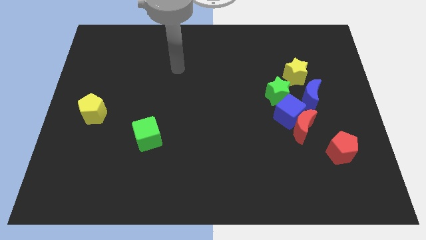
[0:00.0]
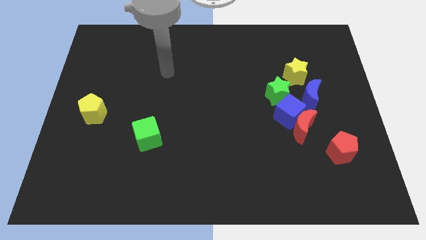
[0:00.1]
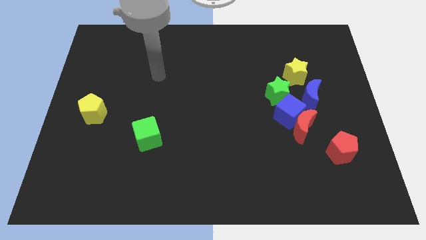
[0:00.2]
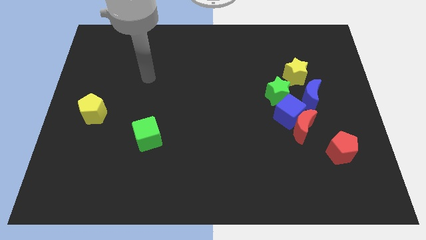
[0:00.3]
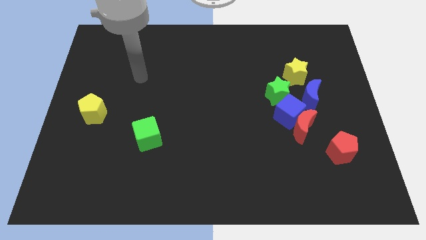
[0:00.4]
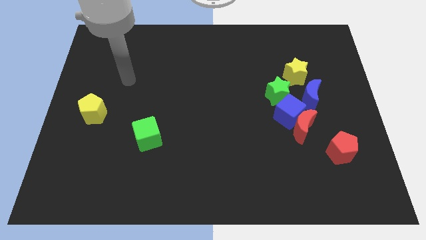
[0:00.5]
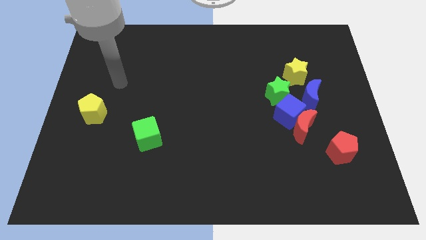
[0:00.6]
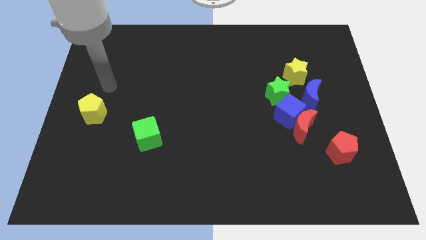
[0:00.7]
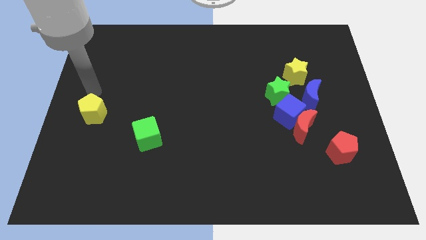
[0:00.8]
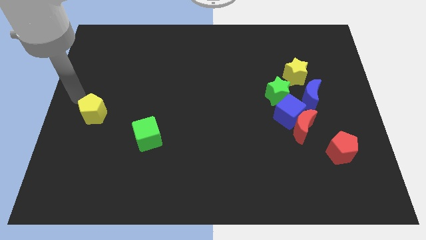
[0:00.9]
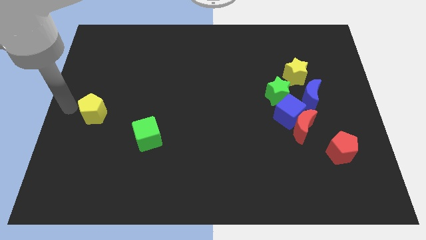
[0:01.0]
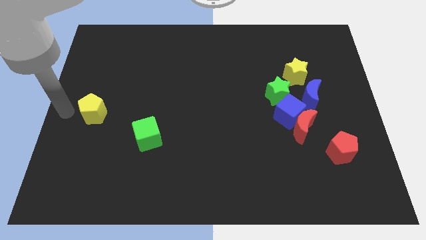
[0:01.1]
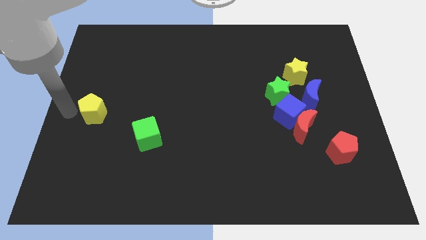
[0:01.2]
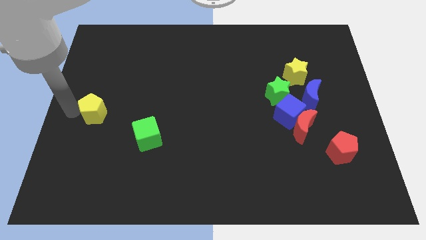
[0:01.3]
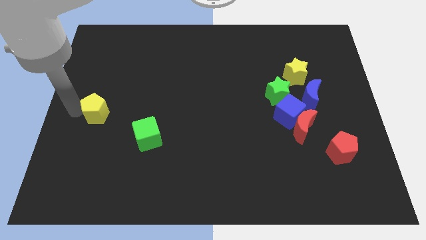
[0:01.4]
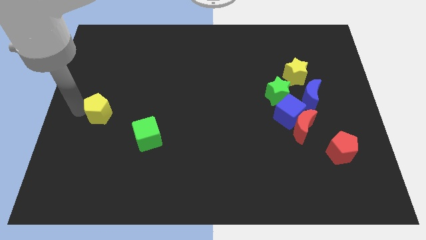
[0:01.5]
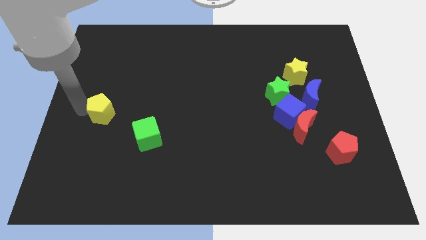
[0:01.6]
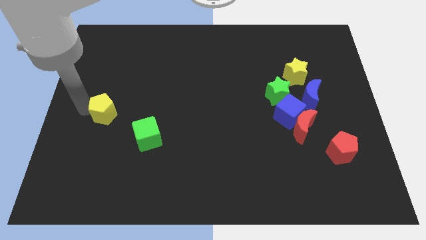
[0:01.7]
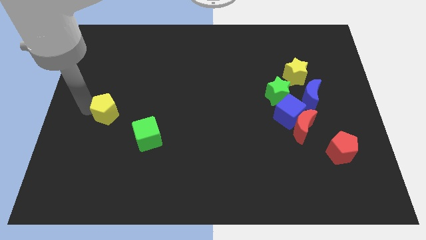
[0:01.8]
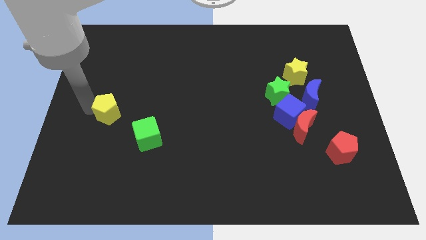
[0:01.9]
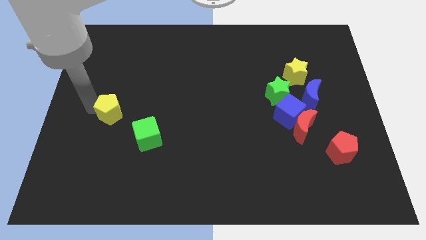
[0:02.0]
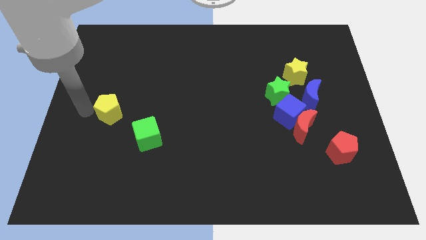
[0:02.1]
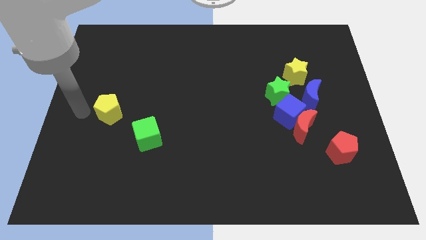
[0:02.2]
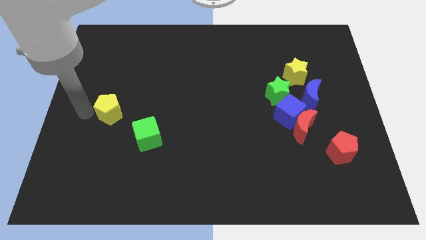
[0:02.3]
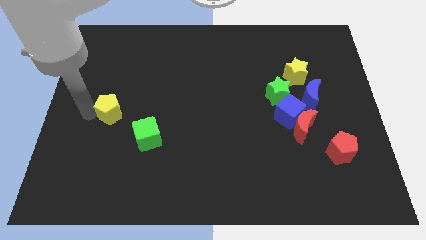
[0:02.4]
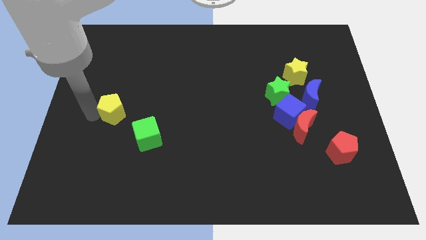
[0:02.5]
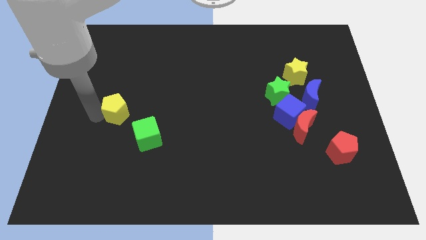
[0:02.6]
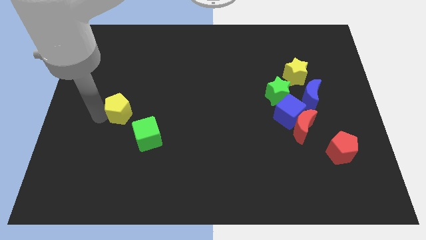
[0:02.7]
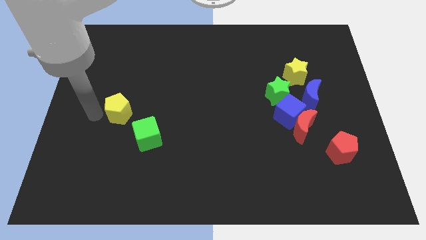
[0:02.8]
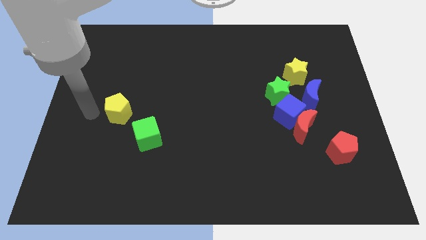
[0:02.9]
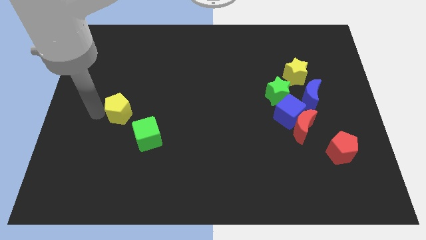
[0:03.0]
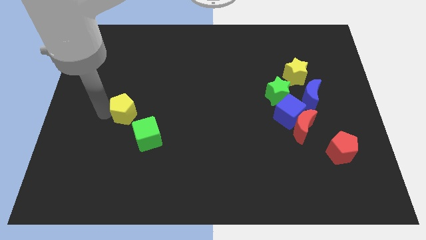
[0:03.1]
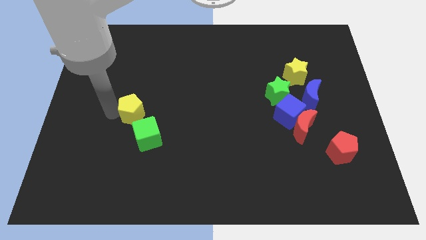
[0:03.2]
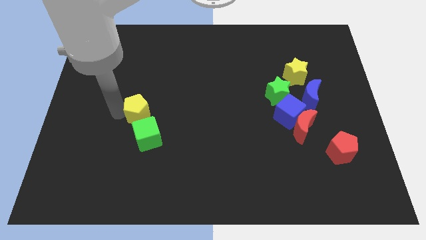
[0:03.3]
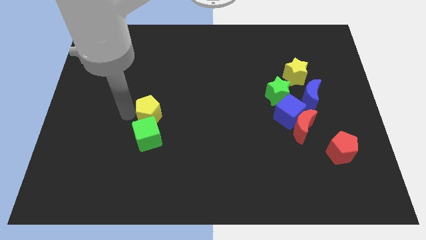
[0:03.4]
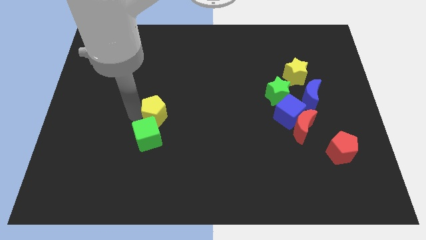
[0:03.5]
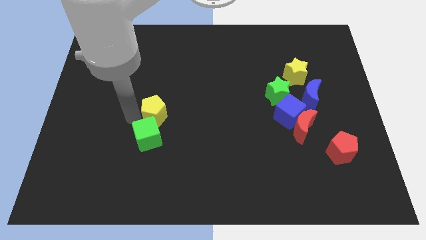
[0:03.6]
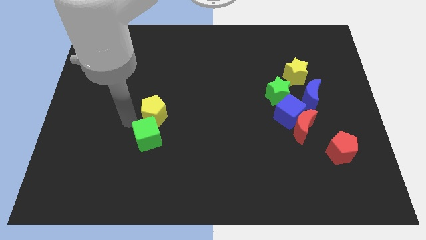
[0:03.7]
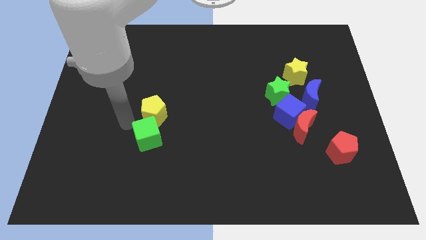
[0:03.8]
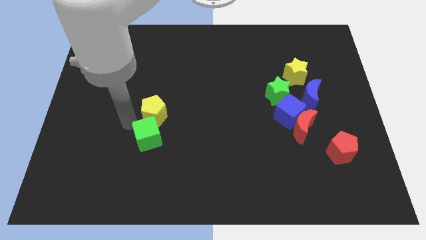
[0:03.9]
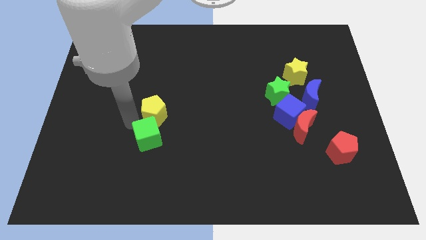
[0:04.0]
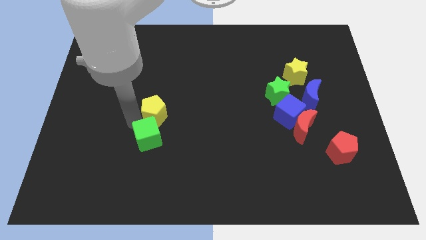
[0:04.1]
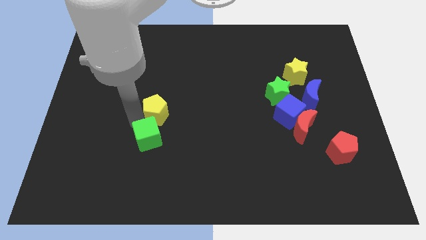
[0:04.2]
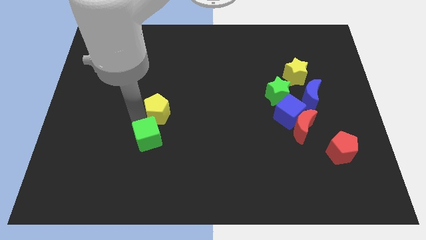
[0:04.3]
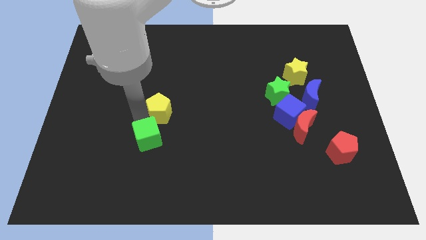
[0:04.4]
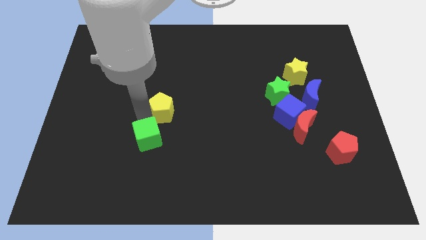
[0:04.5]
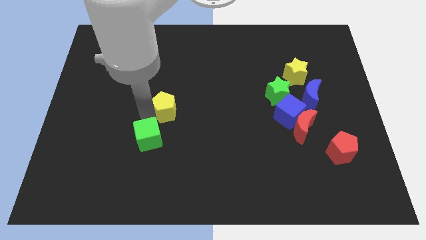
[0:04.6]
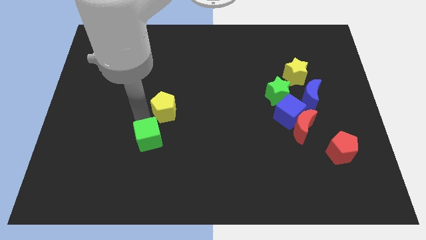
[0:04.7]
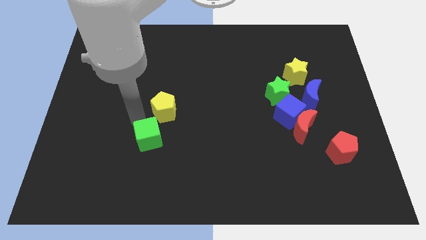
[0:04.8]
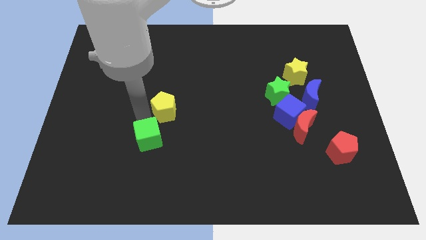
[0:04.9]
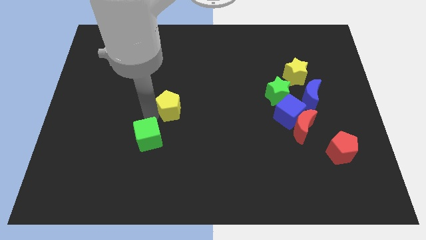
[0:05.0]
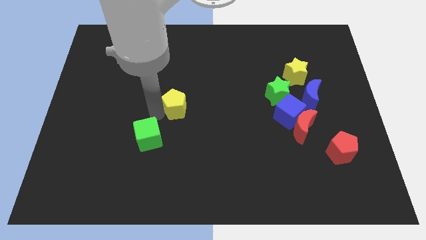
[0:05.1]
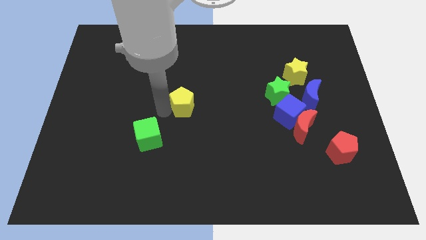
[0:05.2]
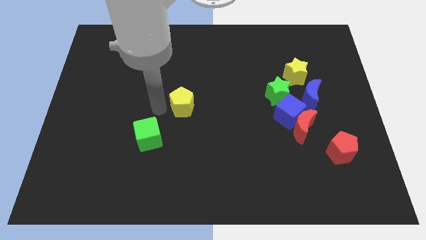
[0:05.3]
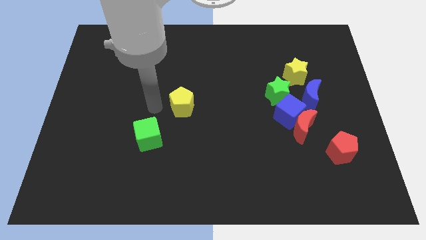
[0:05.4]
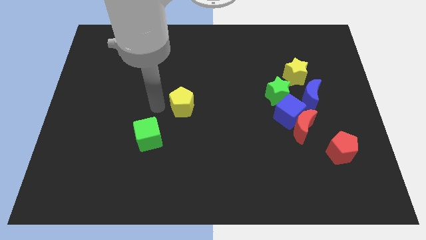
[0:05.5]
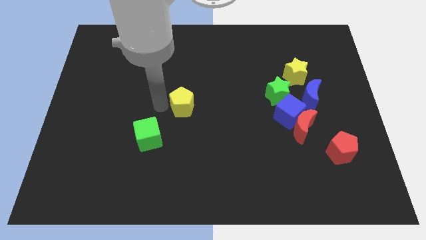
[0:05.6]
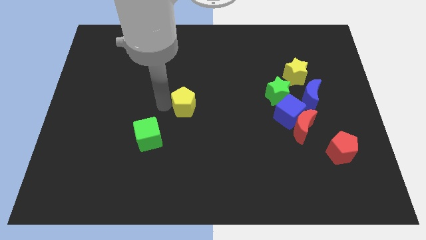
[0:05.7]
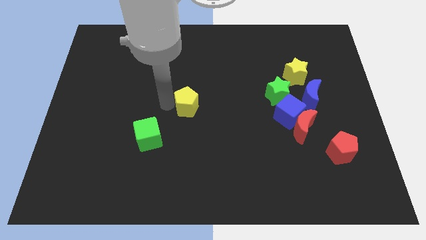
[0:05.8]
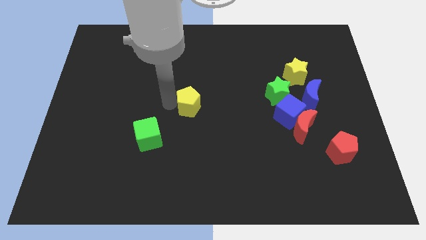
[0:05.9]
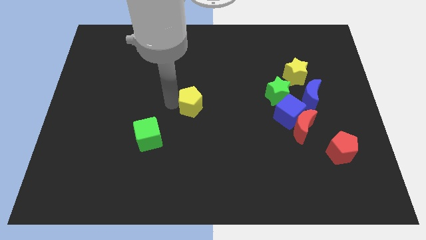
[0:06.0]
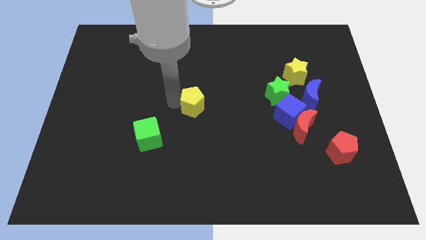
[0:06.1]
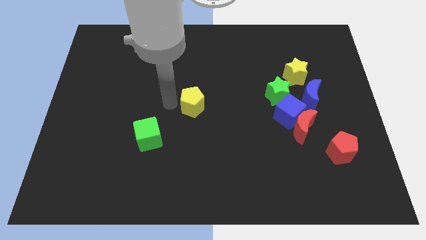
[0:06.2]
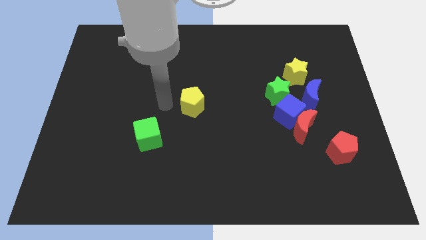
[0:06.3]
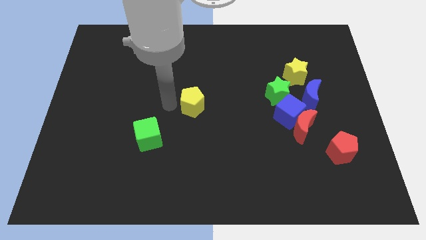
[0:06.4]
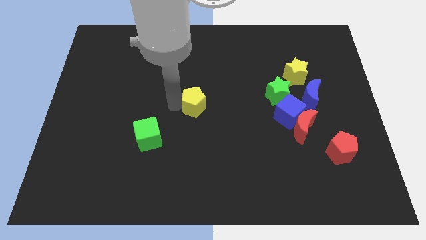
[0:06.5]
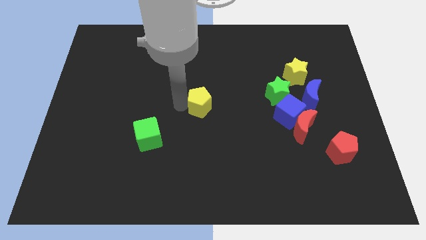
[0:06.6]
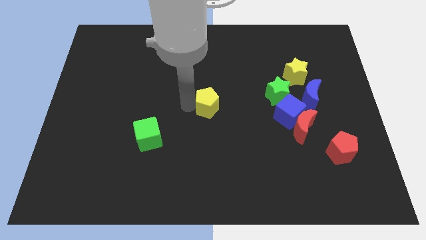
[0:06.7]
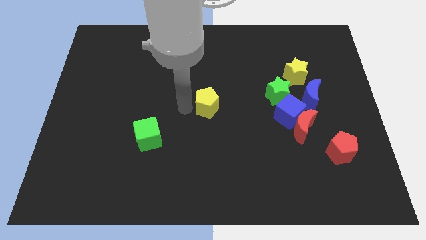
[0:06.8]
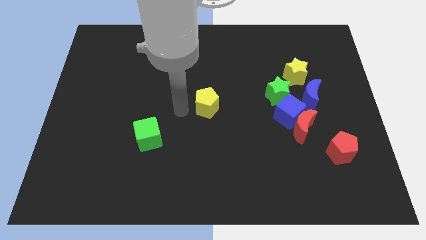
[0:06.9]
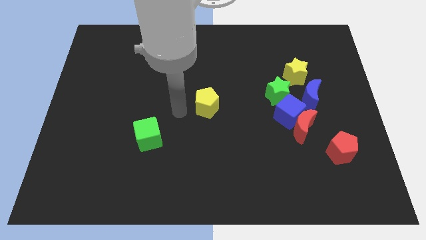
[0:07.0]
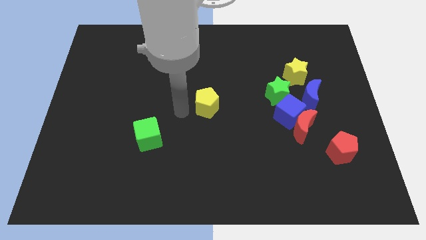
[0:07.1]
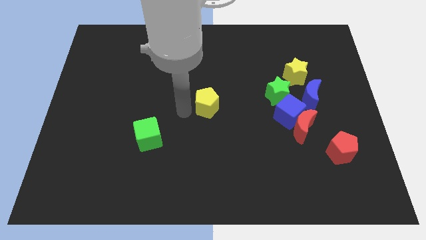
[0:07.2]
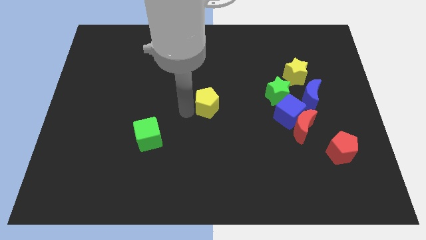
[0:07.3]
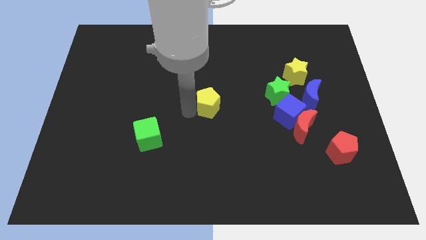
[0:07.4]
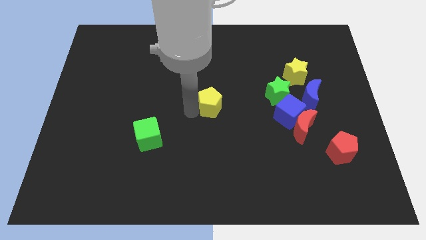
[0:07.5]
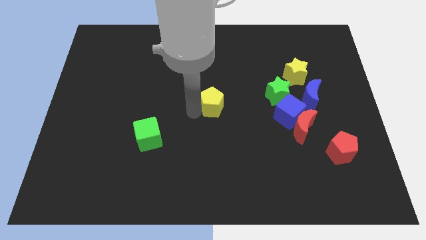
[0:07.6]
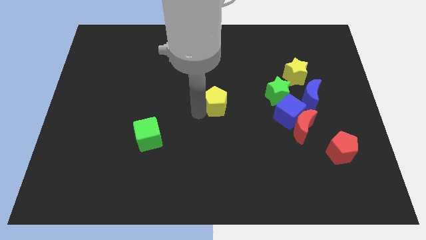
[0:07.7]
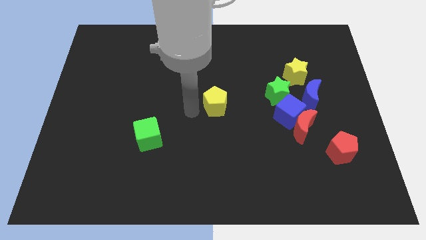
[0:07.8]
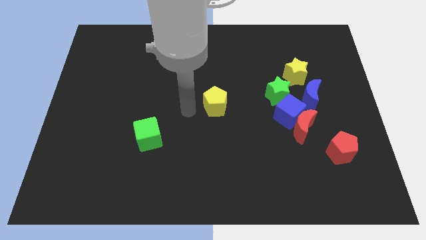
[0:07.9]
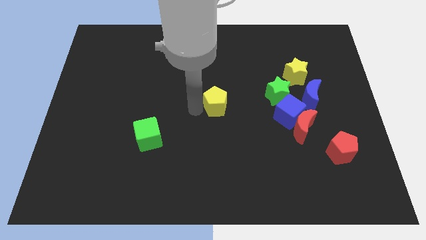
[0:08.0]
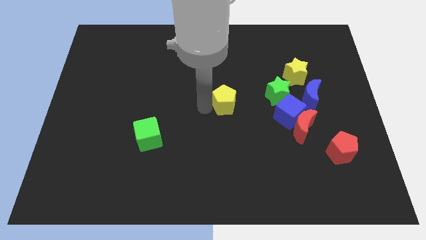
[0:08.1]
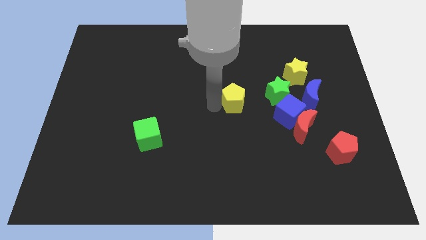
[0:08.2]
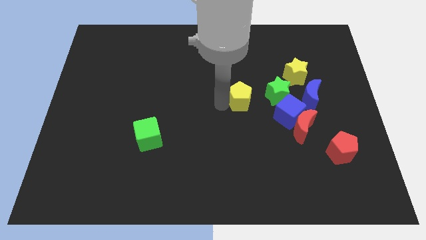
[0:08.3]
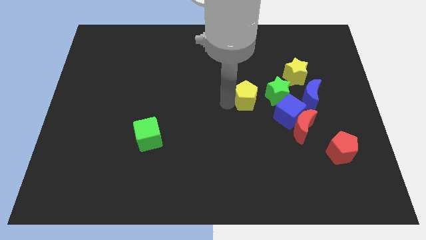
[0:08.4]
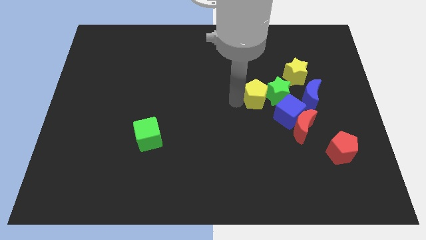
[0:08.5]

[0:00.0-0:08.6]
put the yellow pentagon to the green star
